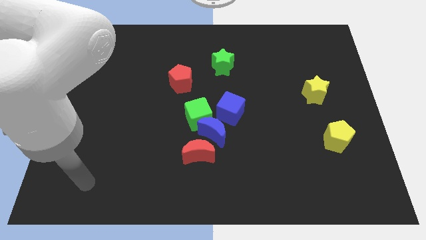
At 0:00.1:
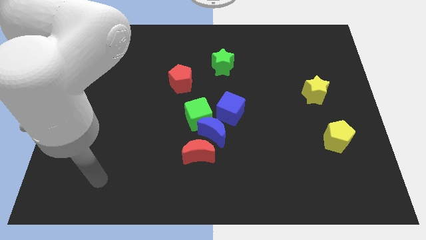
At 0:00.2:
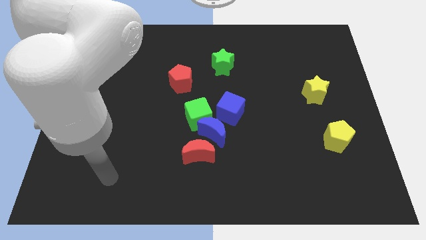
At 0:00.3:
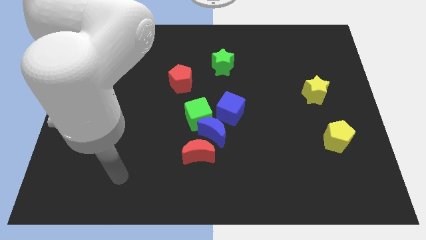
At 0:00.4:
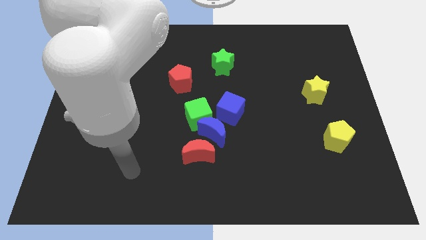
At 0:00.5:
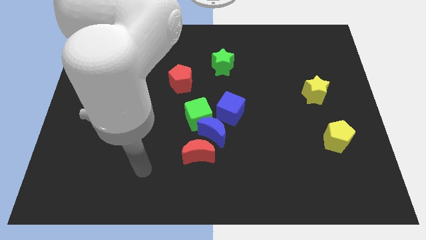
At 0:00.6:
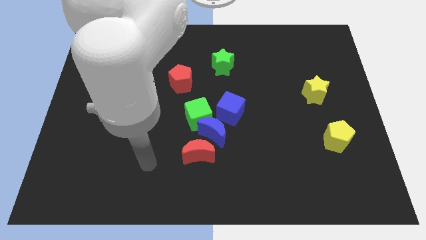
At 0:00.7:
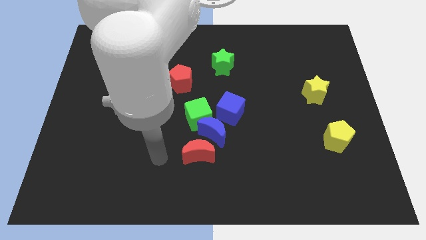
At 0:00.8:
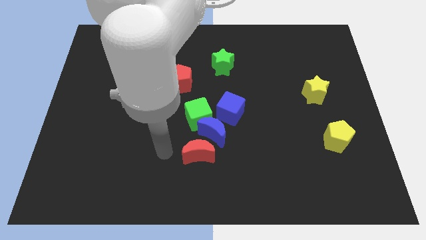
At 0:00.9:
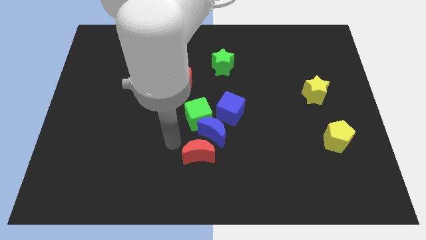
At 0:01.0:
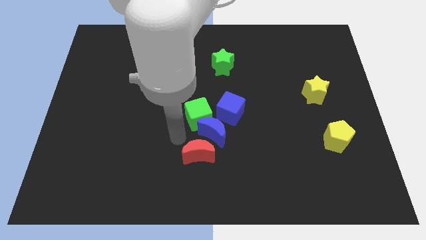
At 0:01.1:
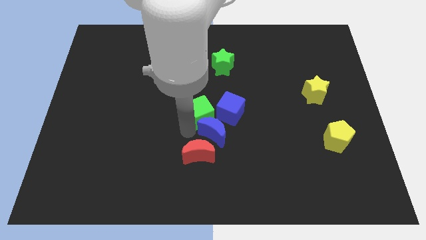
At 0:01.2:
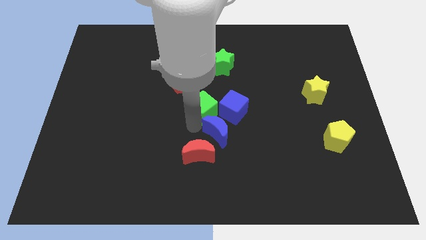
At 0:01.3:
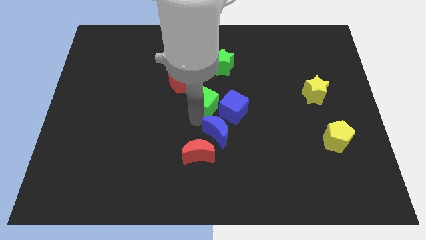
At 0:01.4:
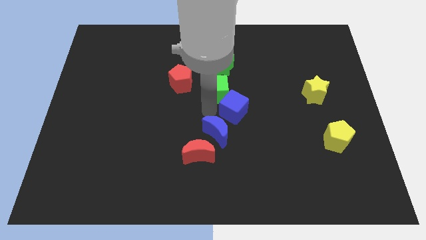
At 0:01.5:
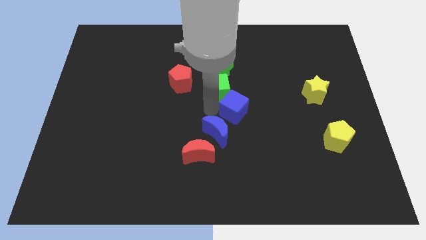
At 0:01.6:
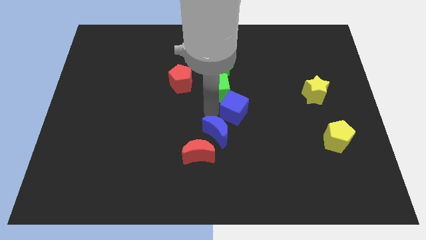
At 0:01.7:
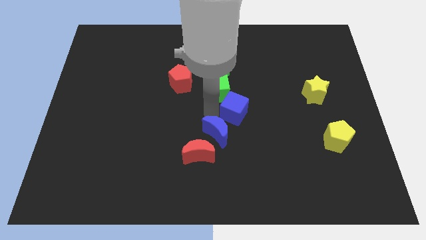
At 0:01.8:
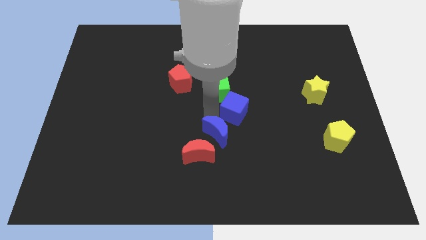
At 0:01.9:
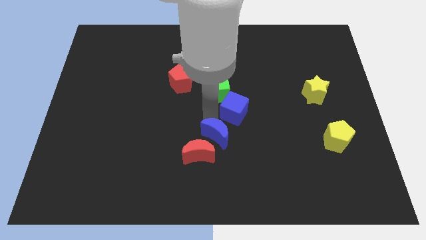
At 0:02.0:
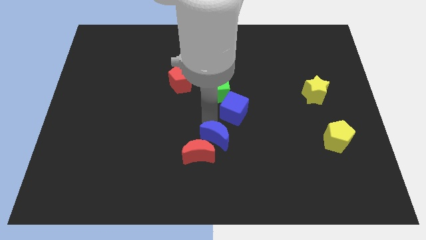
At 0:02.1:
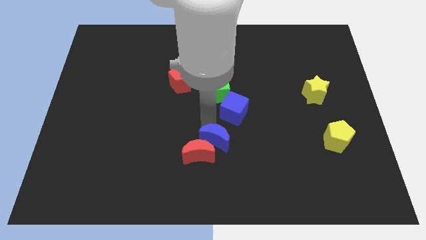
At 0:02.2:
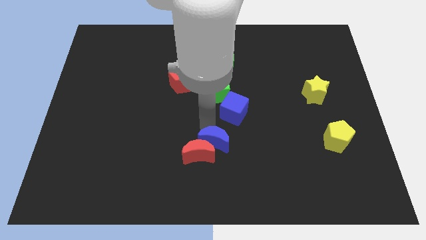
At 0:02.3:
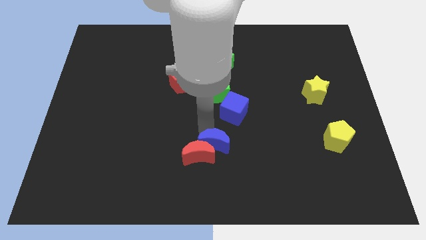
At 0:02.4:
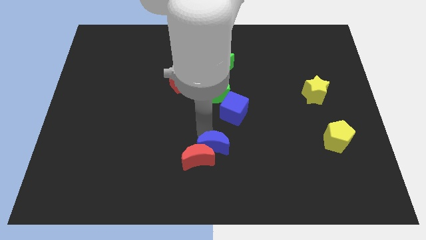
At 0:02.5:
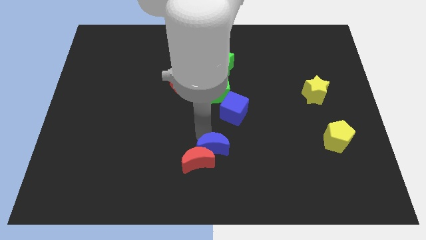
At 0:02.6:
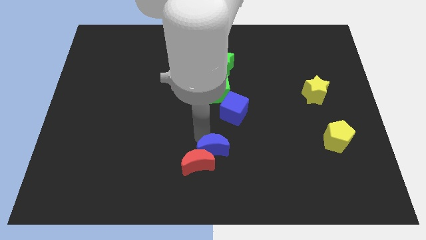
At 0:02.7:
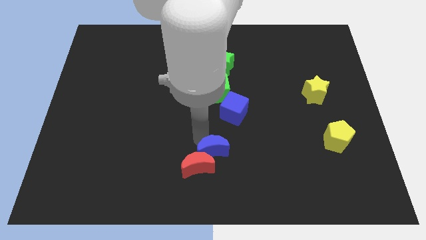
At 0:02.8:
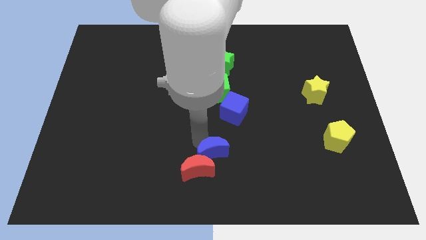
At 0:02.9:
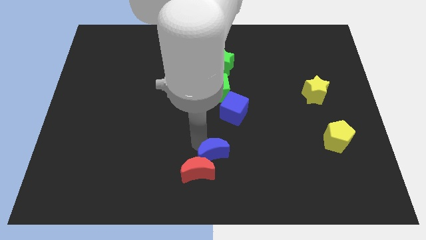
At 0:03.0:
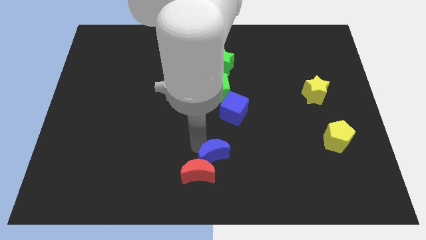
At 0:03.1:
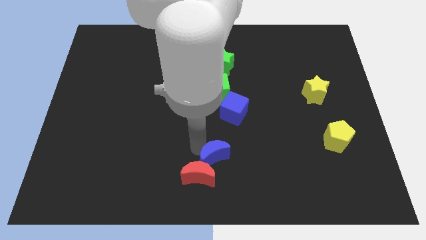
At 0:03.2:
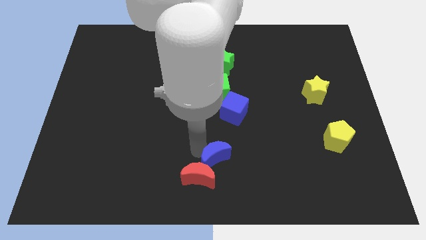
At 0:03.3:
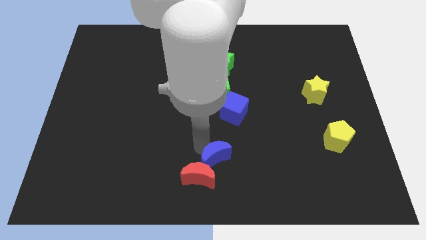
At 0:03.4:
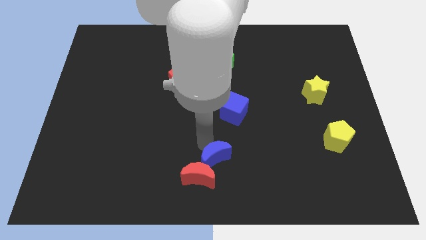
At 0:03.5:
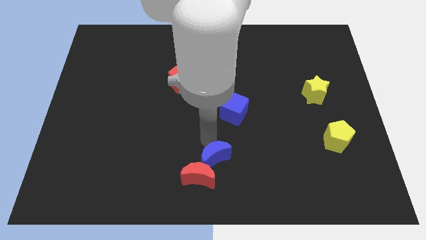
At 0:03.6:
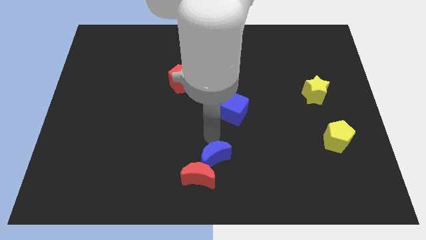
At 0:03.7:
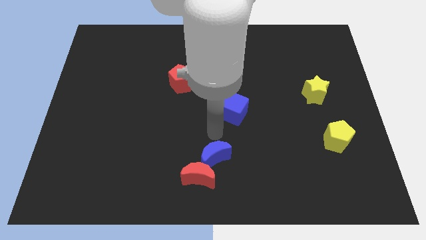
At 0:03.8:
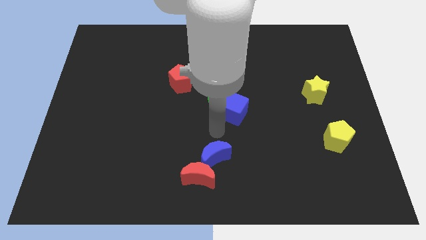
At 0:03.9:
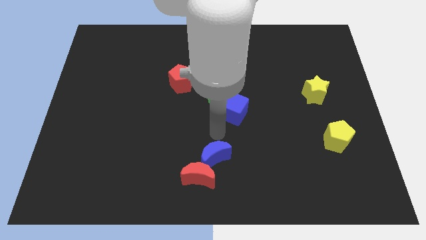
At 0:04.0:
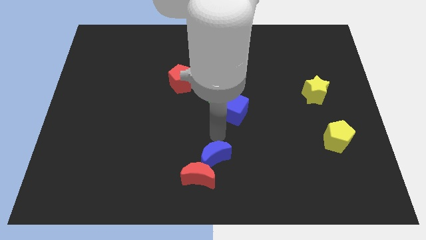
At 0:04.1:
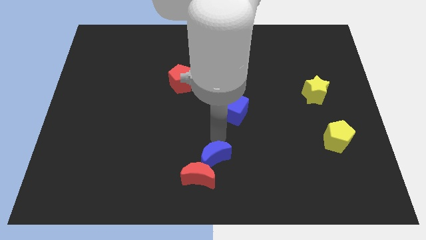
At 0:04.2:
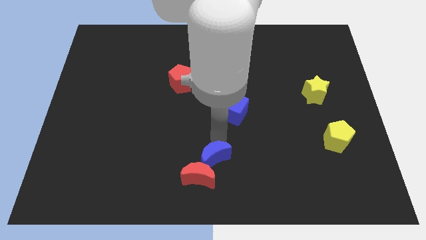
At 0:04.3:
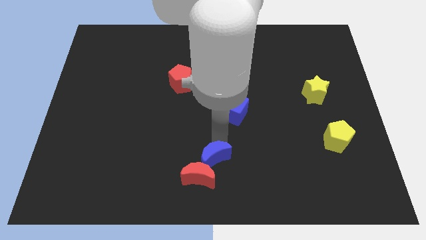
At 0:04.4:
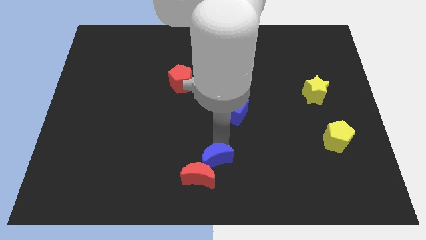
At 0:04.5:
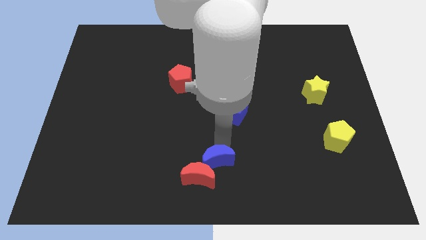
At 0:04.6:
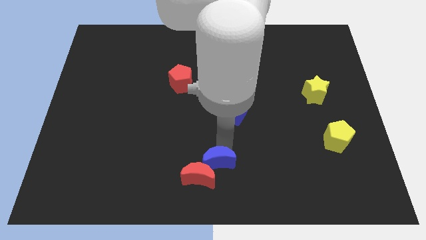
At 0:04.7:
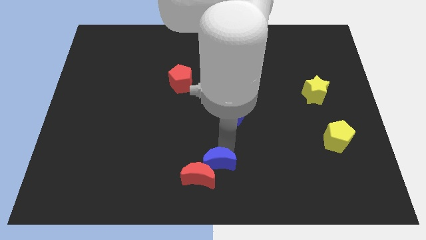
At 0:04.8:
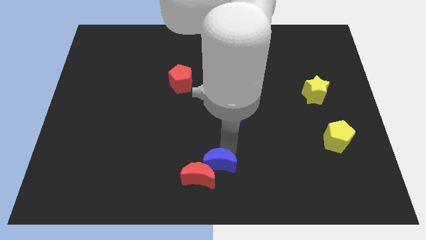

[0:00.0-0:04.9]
pull the blue moon apart from the clump

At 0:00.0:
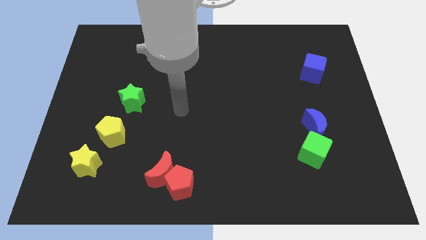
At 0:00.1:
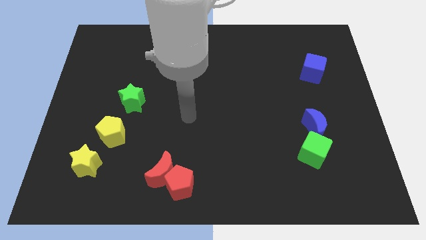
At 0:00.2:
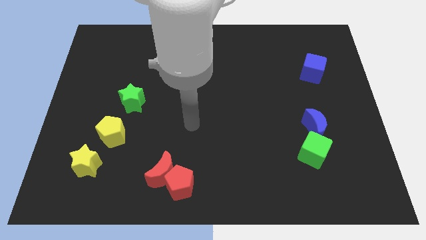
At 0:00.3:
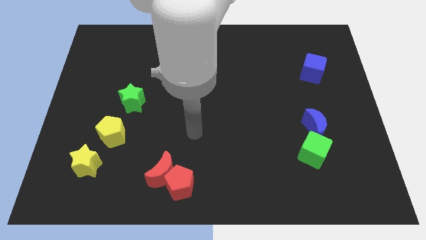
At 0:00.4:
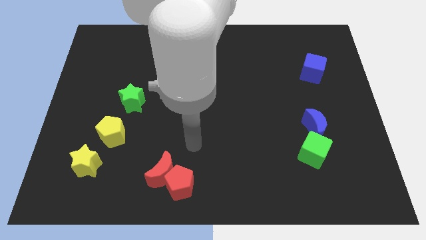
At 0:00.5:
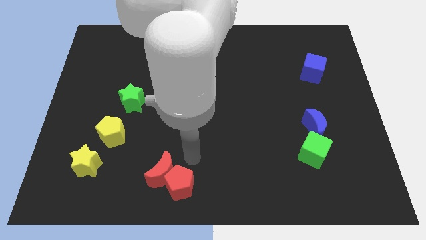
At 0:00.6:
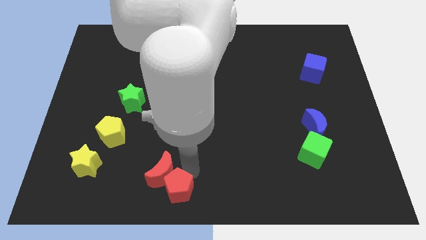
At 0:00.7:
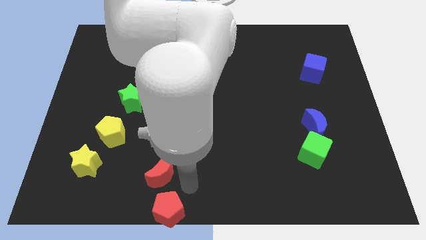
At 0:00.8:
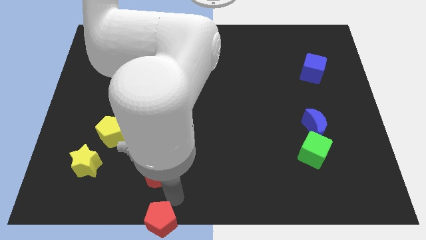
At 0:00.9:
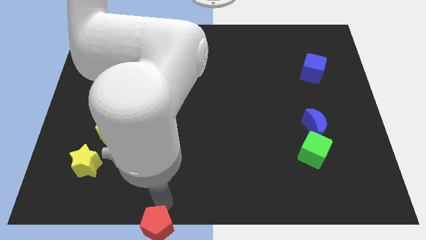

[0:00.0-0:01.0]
separate the red moon from the red pentagon

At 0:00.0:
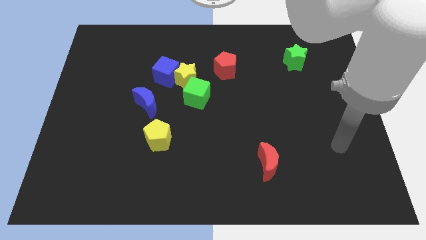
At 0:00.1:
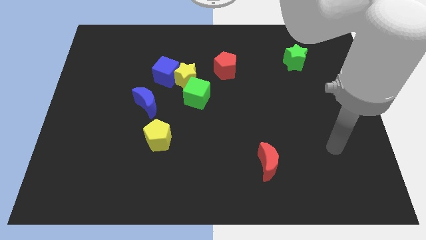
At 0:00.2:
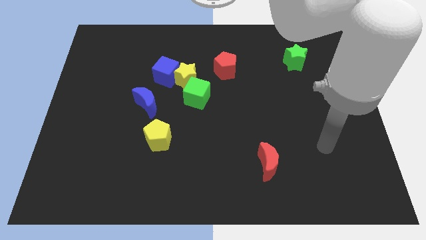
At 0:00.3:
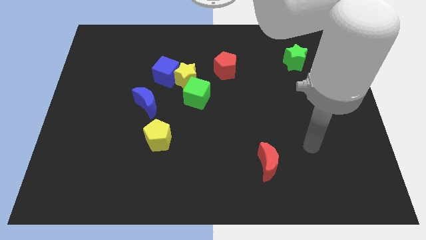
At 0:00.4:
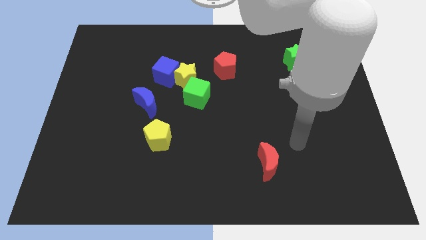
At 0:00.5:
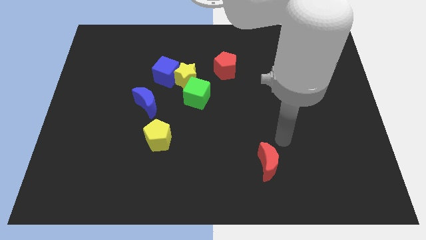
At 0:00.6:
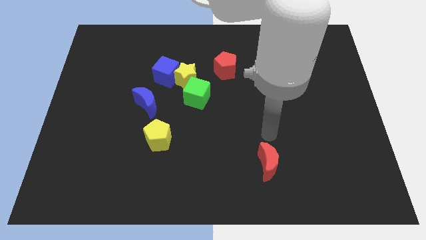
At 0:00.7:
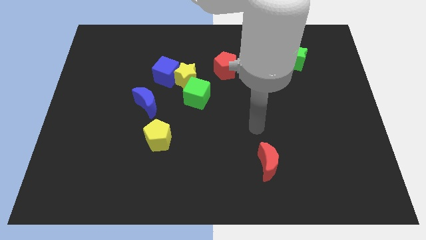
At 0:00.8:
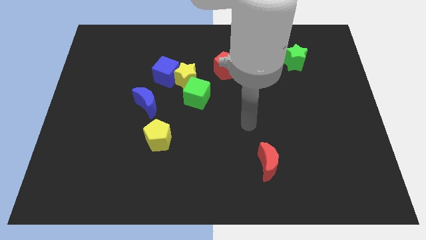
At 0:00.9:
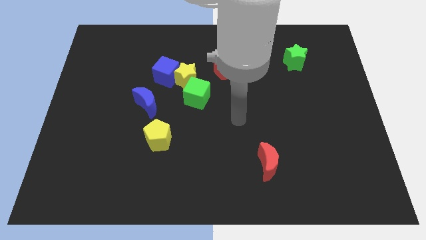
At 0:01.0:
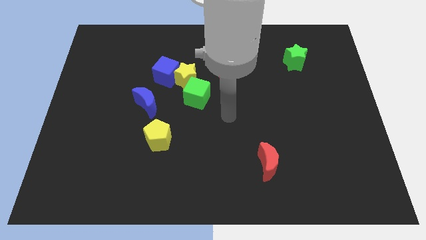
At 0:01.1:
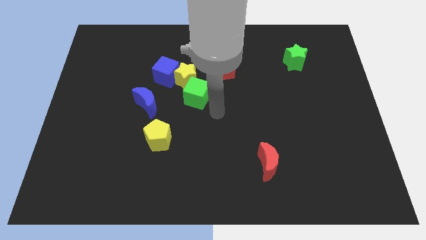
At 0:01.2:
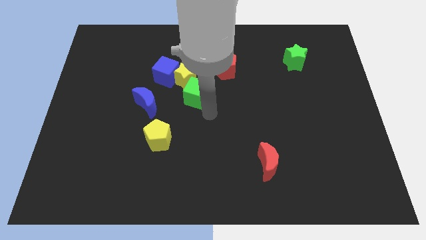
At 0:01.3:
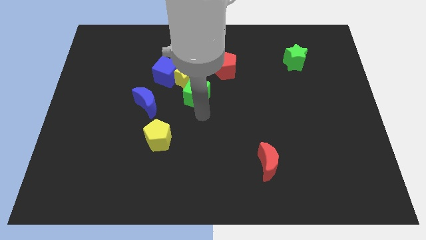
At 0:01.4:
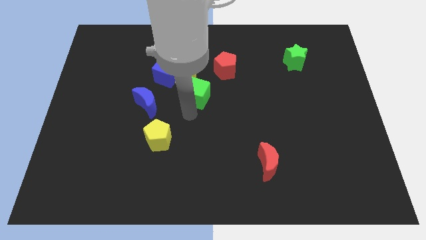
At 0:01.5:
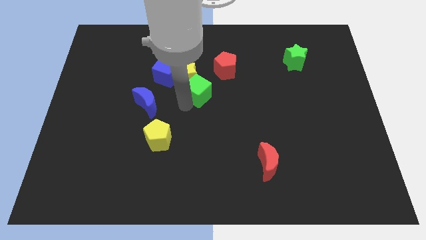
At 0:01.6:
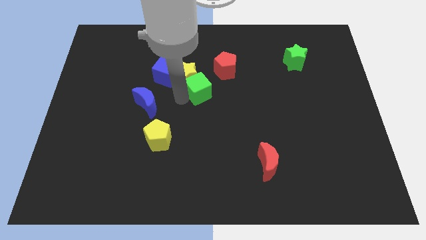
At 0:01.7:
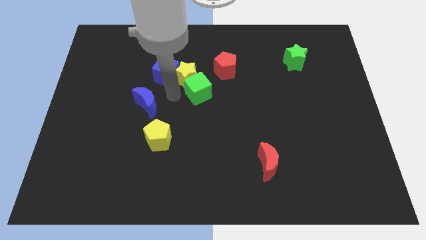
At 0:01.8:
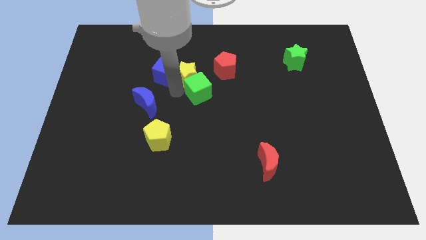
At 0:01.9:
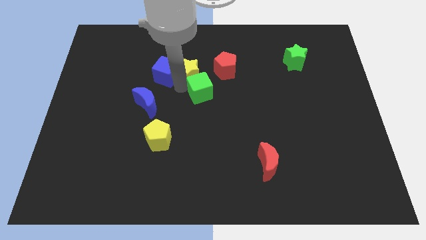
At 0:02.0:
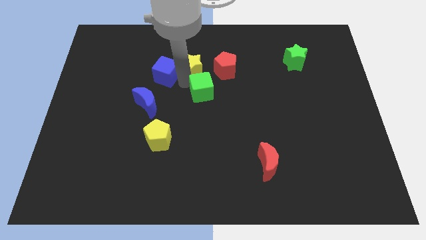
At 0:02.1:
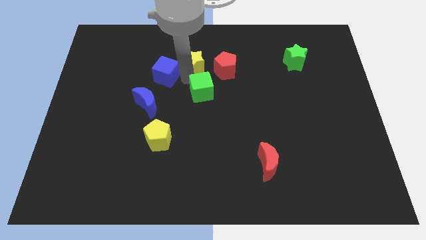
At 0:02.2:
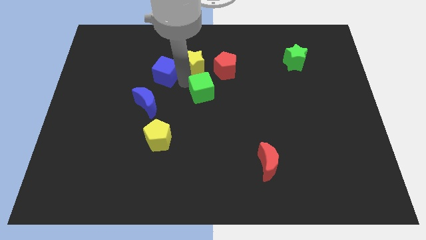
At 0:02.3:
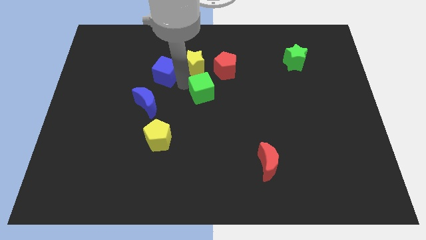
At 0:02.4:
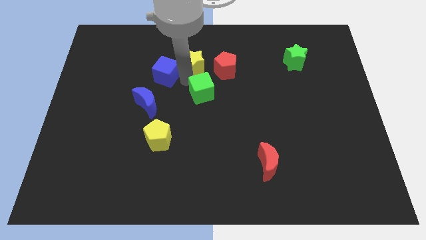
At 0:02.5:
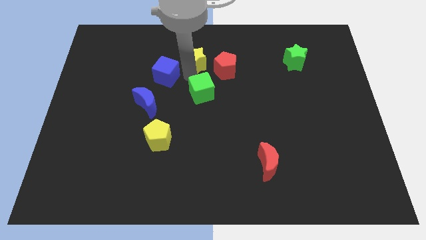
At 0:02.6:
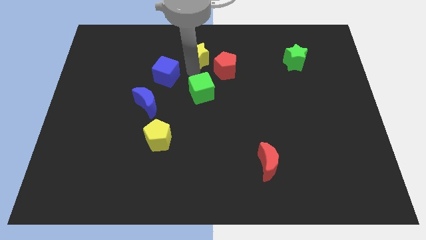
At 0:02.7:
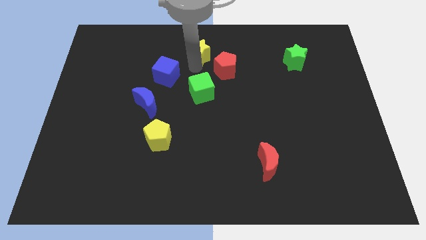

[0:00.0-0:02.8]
separate the yellow star from the blue cube and green cube

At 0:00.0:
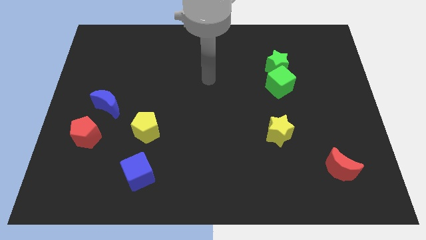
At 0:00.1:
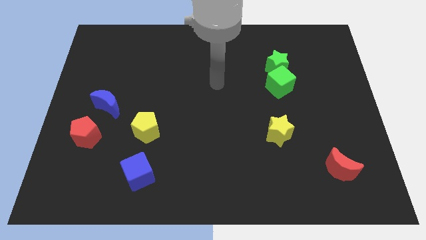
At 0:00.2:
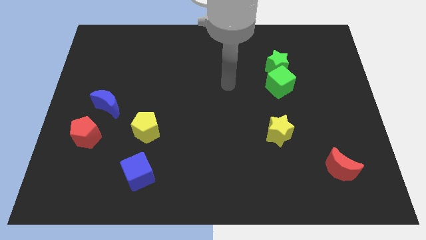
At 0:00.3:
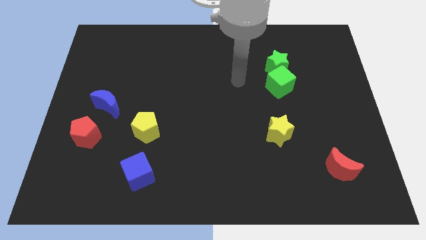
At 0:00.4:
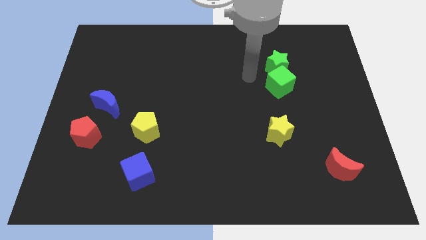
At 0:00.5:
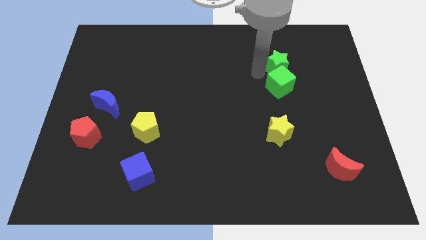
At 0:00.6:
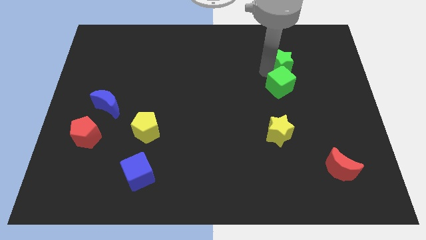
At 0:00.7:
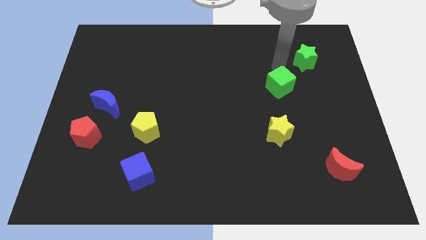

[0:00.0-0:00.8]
separate the green cube from the green star

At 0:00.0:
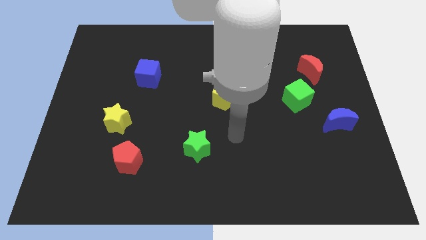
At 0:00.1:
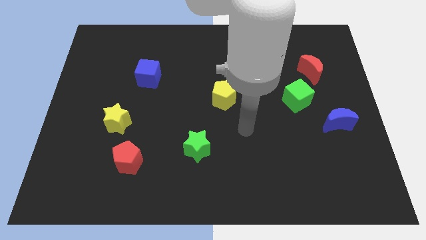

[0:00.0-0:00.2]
move the red moon away from the green cube
